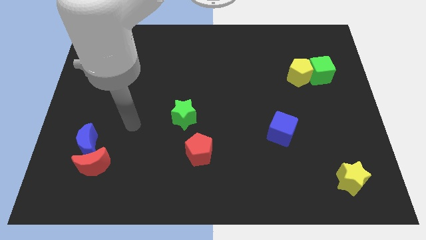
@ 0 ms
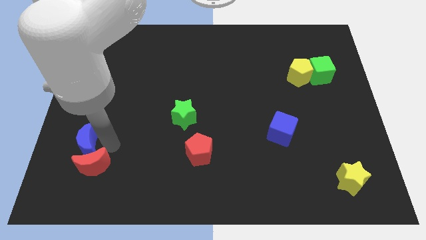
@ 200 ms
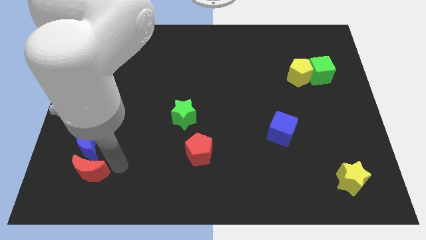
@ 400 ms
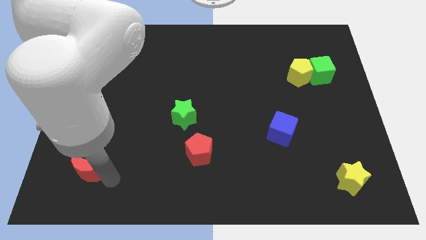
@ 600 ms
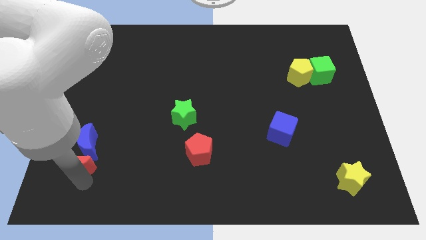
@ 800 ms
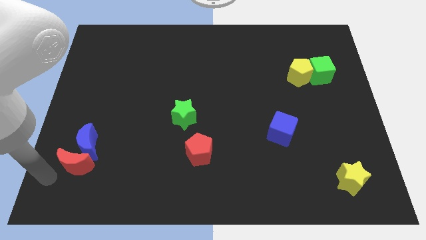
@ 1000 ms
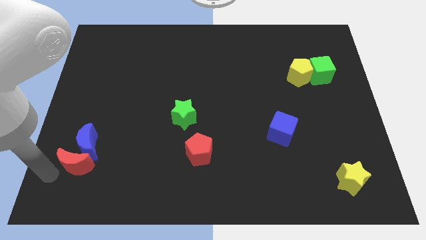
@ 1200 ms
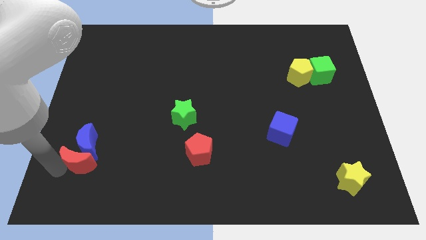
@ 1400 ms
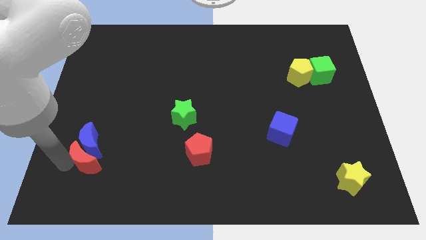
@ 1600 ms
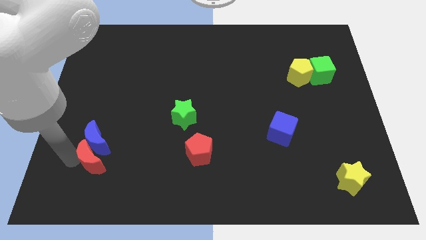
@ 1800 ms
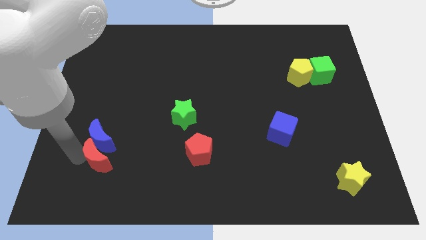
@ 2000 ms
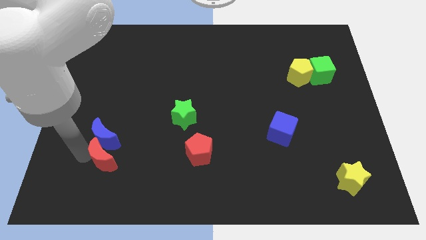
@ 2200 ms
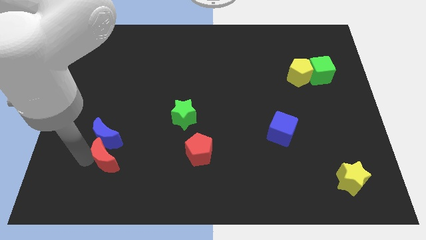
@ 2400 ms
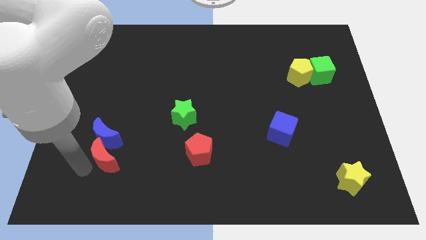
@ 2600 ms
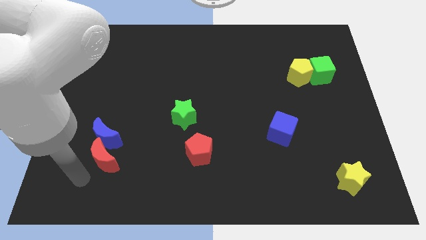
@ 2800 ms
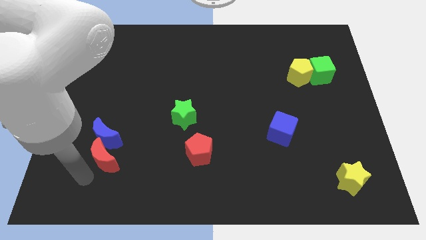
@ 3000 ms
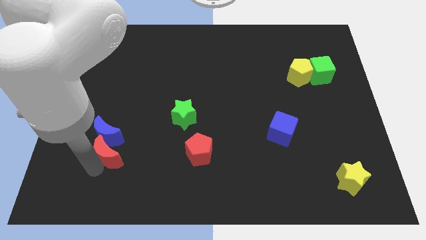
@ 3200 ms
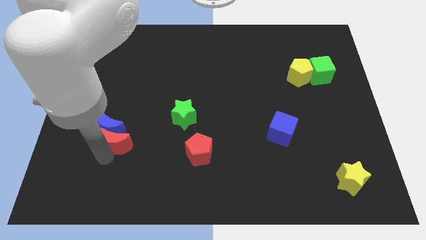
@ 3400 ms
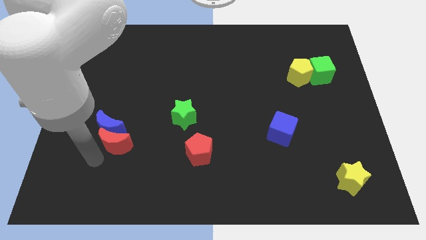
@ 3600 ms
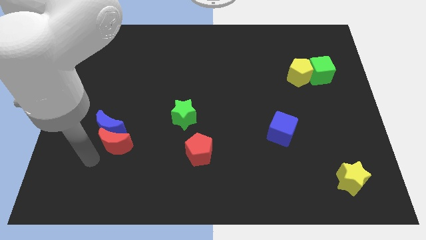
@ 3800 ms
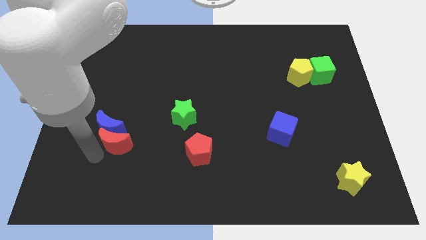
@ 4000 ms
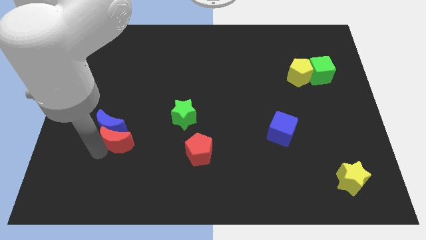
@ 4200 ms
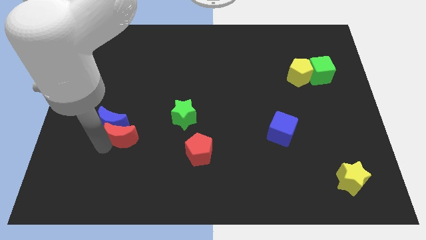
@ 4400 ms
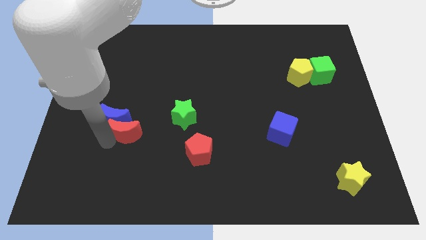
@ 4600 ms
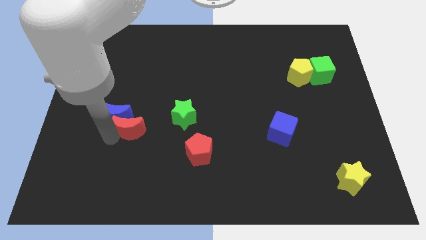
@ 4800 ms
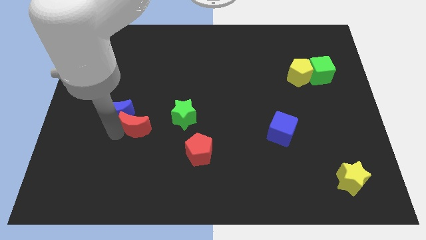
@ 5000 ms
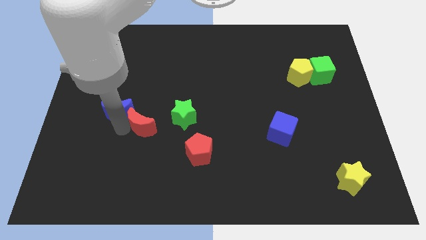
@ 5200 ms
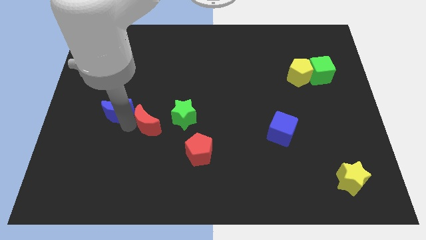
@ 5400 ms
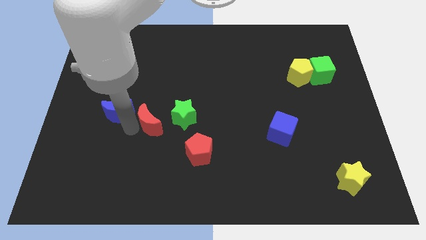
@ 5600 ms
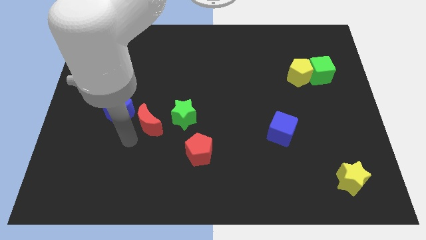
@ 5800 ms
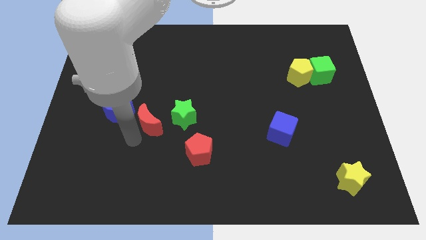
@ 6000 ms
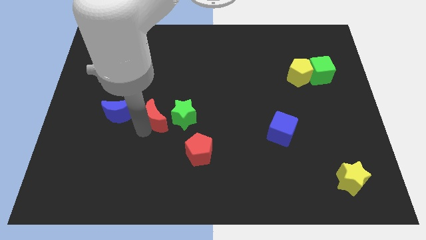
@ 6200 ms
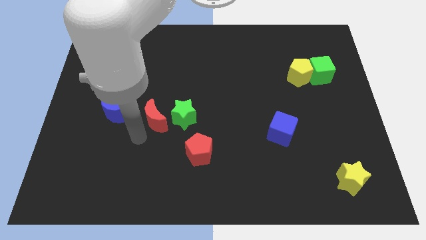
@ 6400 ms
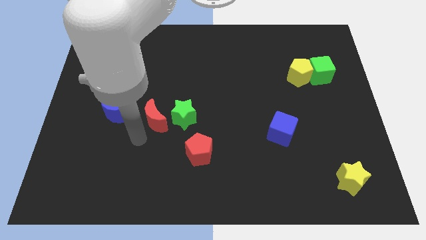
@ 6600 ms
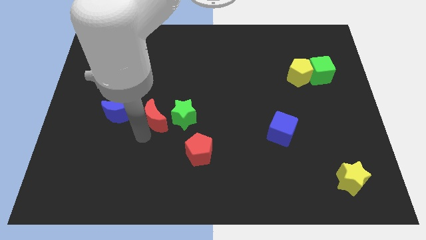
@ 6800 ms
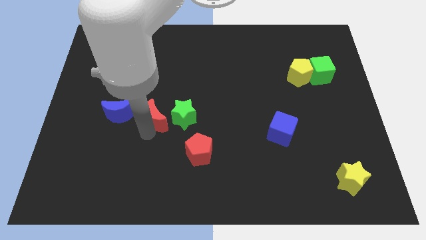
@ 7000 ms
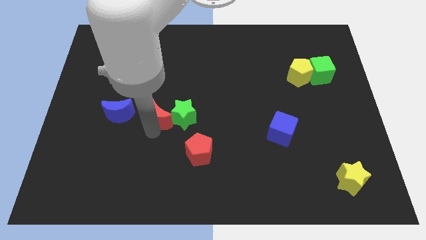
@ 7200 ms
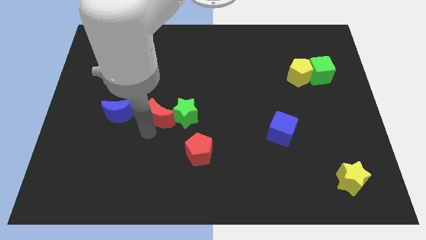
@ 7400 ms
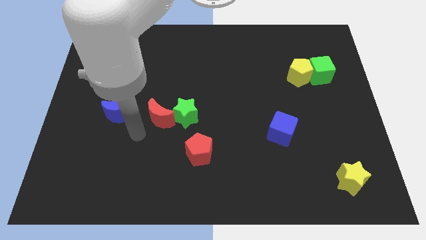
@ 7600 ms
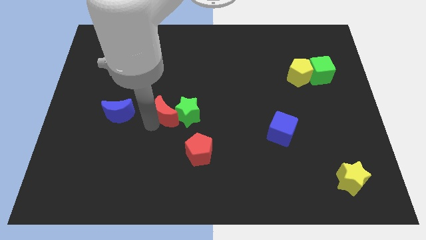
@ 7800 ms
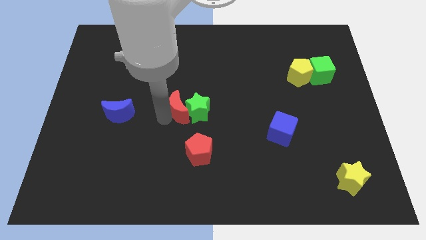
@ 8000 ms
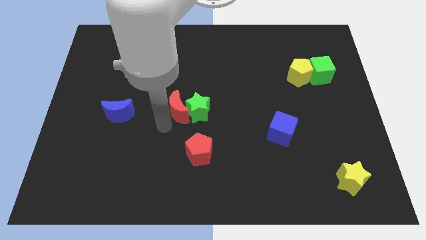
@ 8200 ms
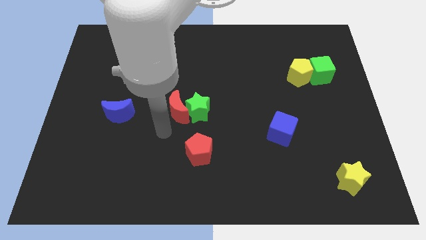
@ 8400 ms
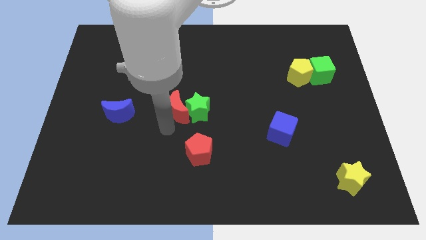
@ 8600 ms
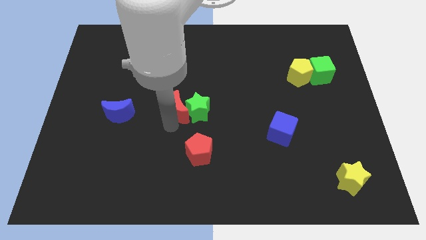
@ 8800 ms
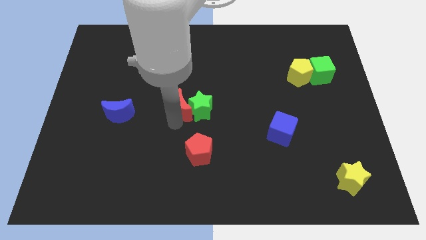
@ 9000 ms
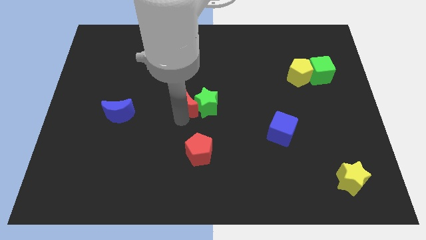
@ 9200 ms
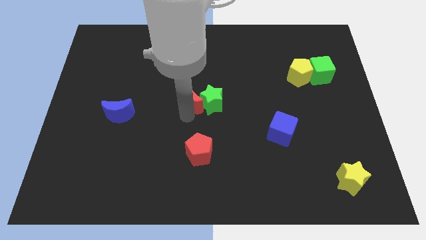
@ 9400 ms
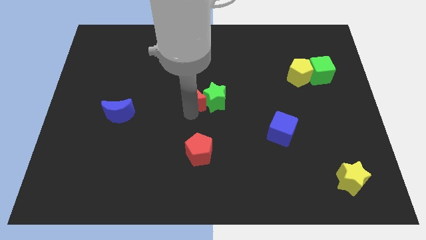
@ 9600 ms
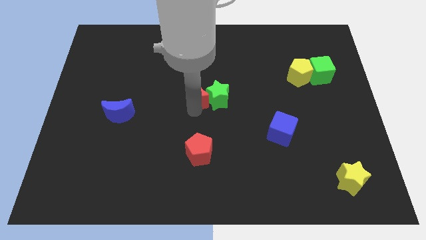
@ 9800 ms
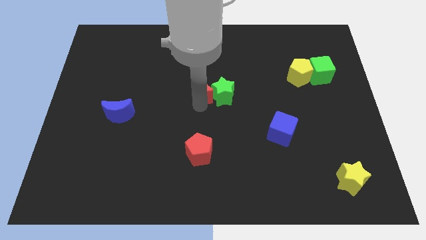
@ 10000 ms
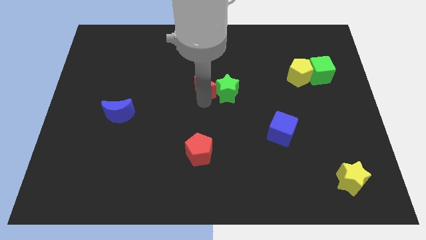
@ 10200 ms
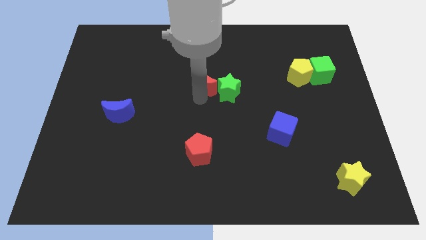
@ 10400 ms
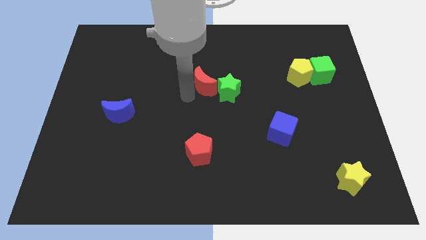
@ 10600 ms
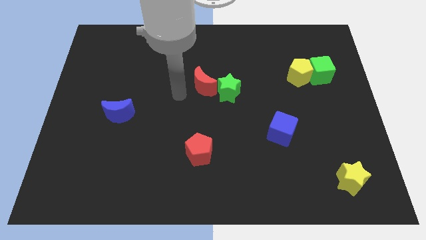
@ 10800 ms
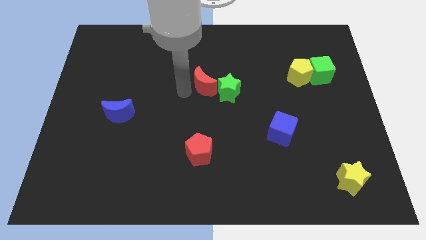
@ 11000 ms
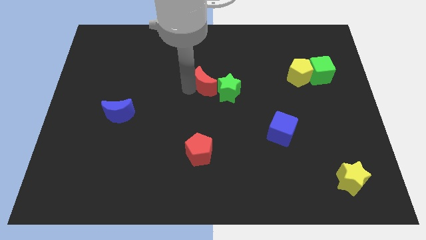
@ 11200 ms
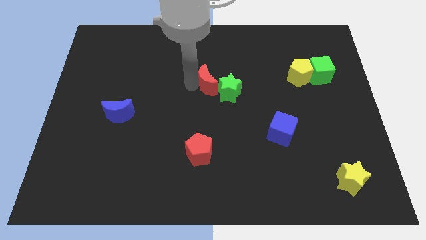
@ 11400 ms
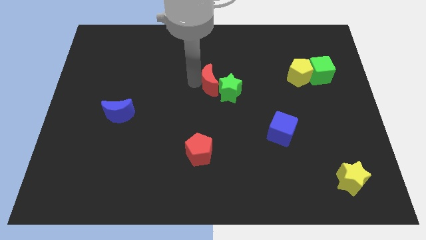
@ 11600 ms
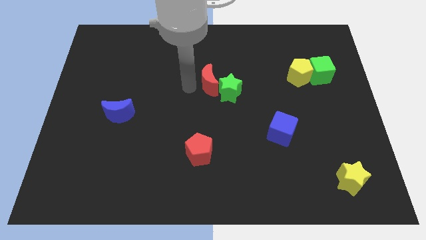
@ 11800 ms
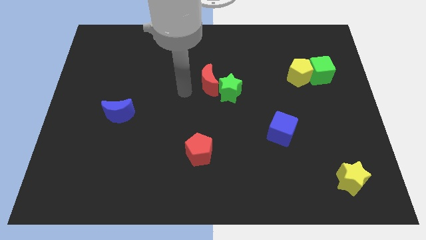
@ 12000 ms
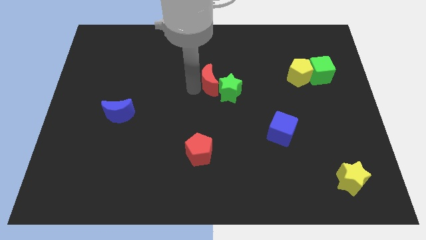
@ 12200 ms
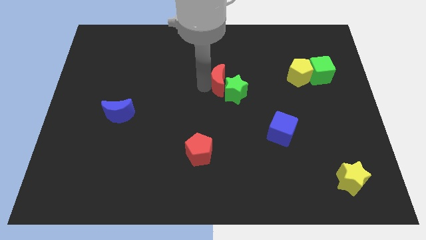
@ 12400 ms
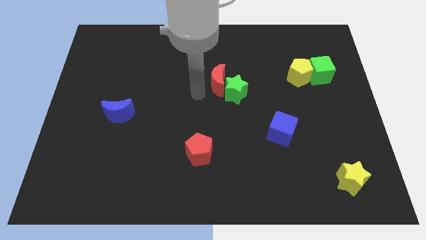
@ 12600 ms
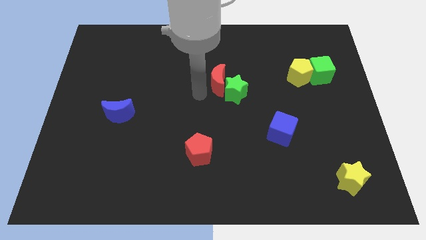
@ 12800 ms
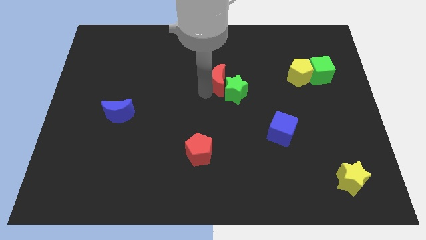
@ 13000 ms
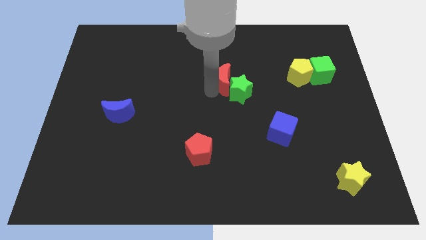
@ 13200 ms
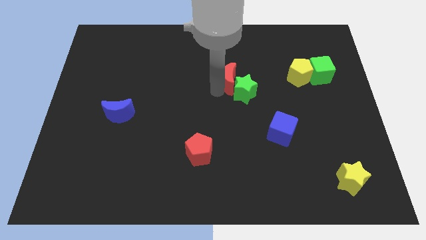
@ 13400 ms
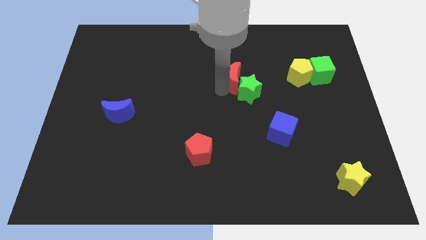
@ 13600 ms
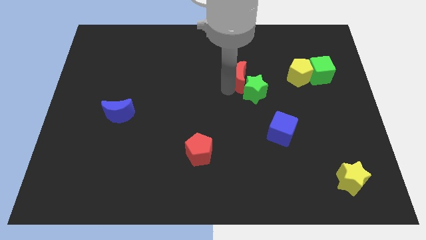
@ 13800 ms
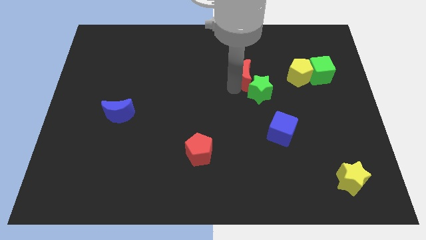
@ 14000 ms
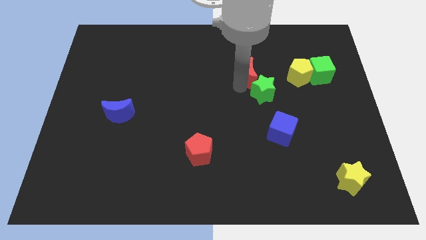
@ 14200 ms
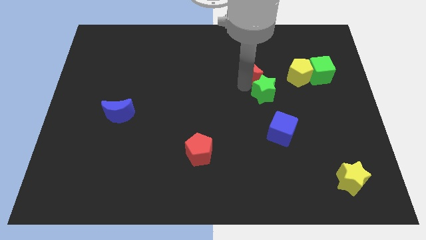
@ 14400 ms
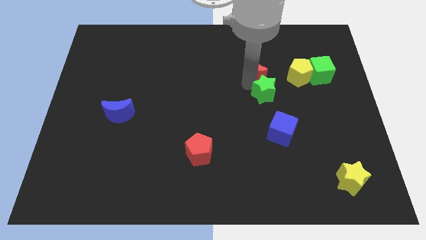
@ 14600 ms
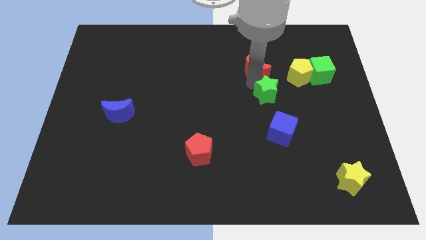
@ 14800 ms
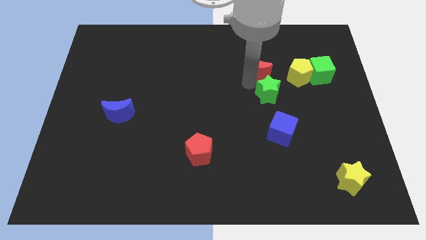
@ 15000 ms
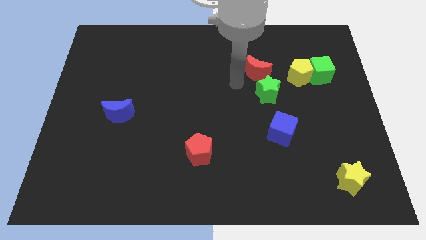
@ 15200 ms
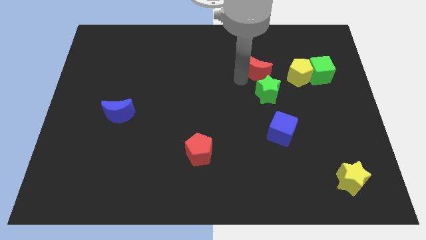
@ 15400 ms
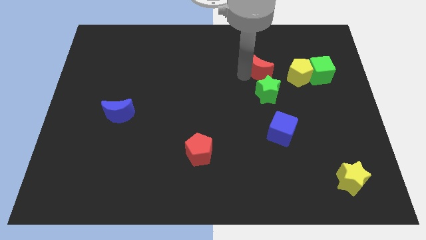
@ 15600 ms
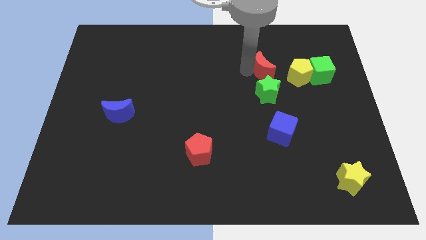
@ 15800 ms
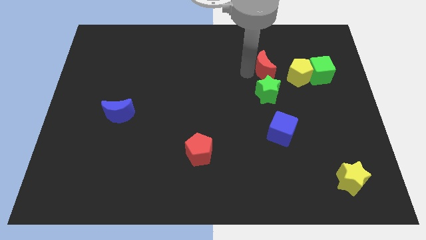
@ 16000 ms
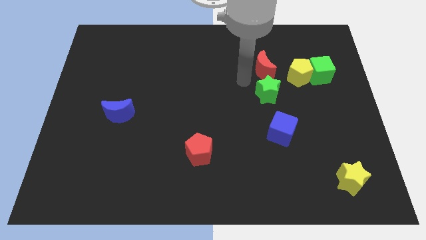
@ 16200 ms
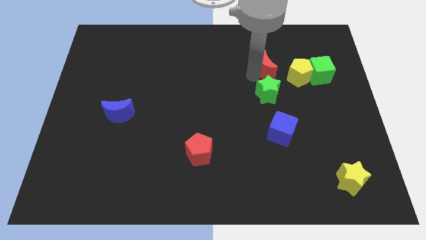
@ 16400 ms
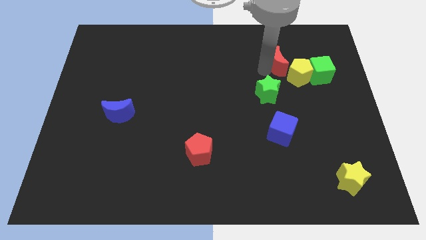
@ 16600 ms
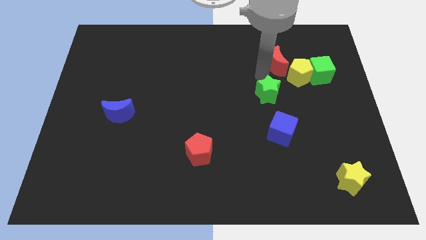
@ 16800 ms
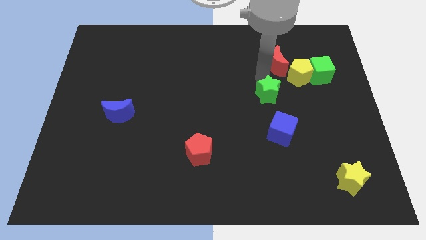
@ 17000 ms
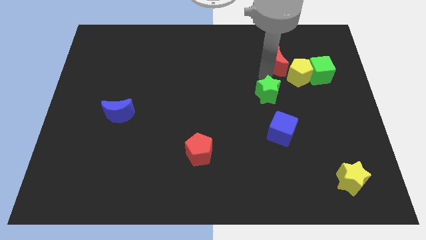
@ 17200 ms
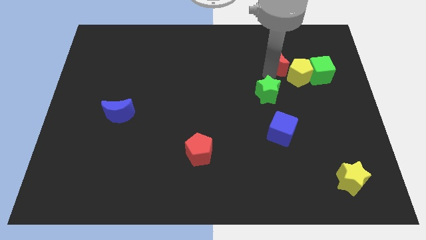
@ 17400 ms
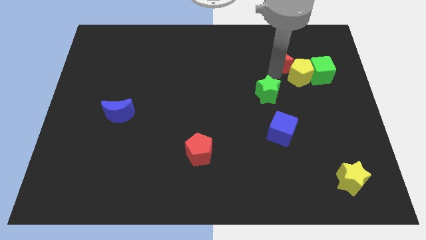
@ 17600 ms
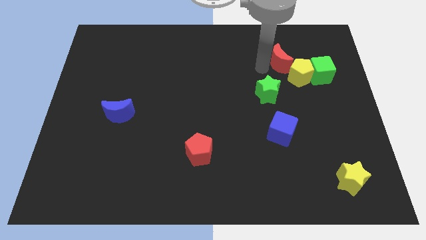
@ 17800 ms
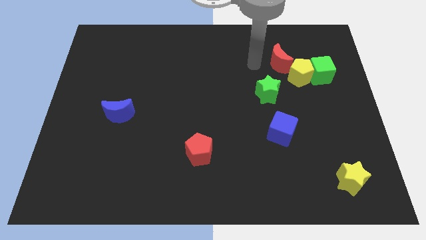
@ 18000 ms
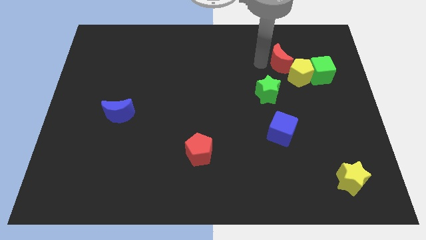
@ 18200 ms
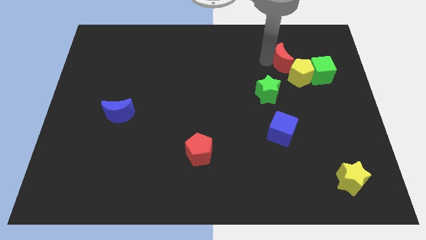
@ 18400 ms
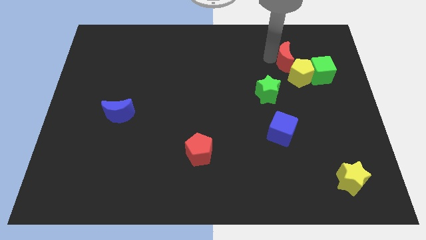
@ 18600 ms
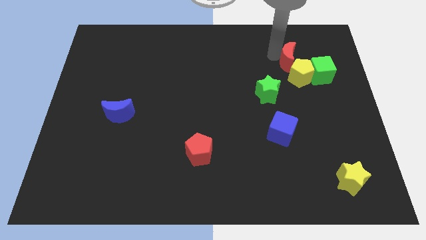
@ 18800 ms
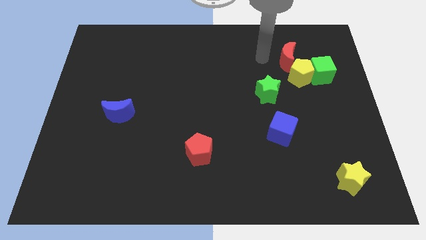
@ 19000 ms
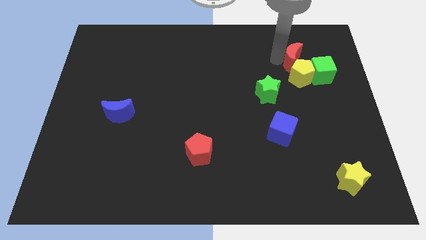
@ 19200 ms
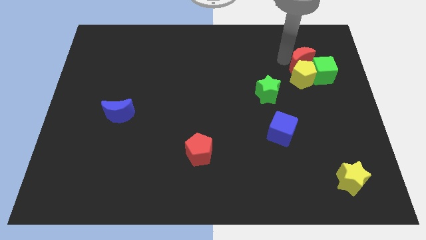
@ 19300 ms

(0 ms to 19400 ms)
slide the red moon to the top right of the yellow pentagon
